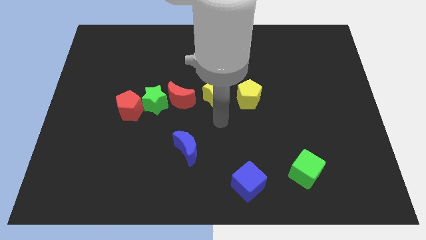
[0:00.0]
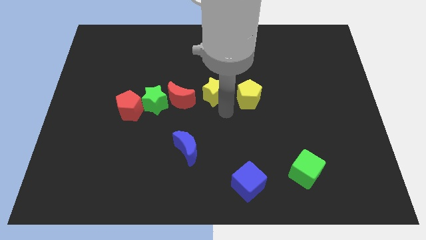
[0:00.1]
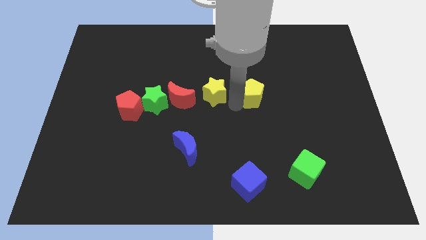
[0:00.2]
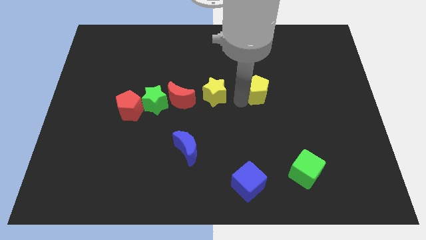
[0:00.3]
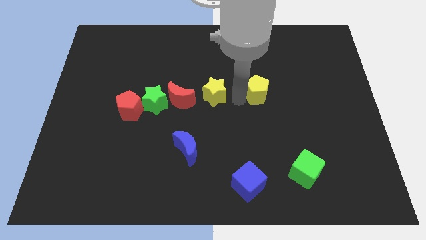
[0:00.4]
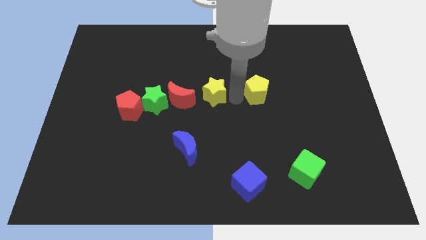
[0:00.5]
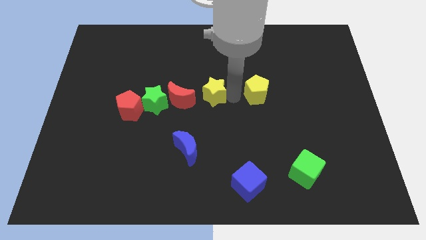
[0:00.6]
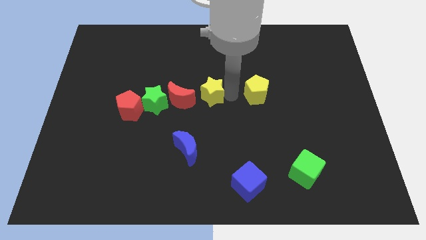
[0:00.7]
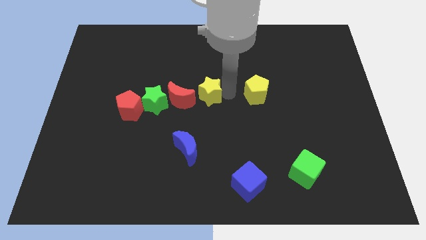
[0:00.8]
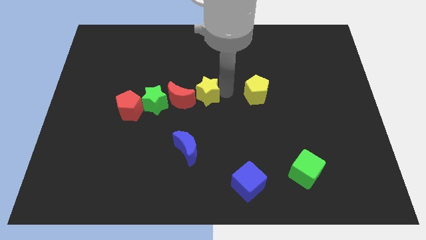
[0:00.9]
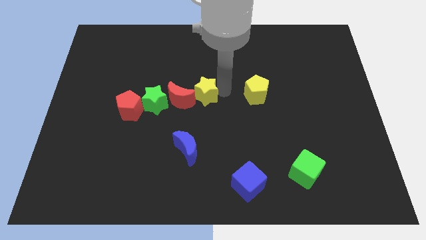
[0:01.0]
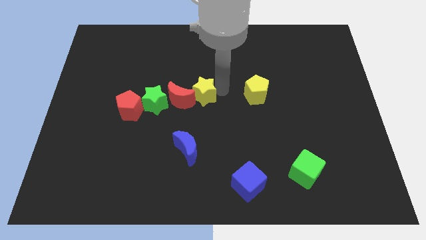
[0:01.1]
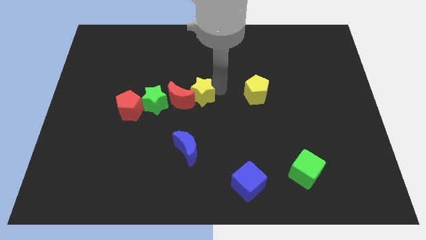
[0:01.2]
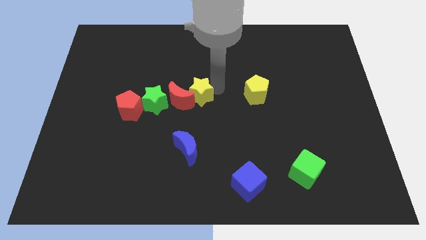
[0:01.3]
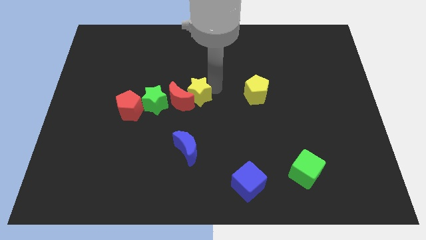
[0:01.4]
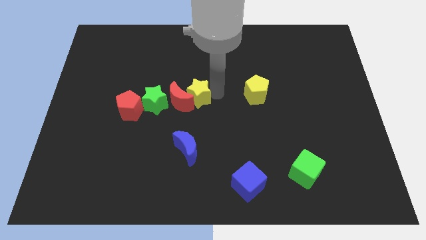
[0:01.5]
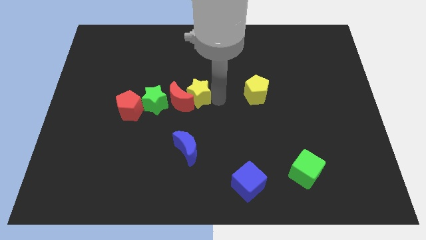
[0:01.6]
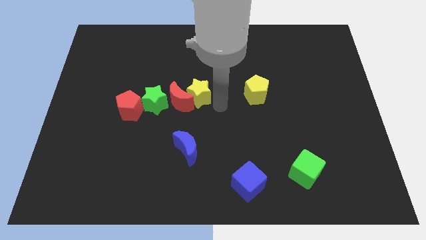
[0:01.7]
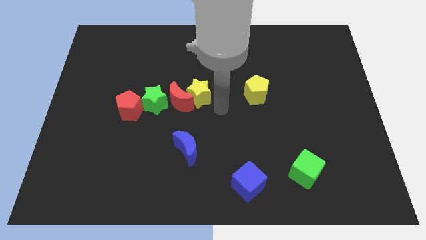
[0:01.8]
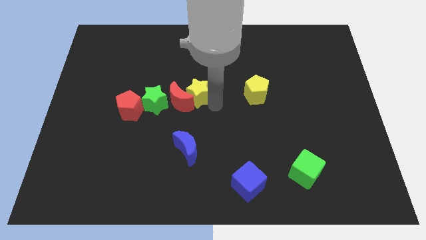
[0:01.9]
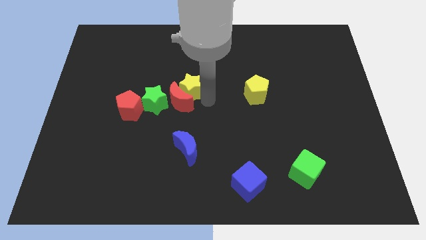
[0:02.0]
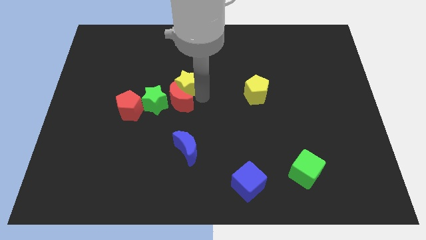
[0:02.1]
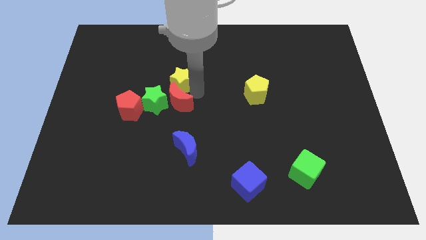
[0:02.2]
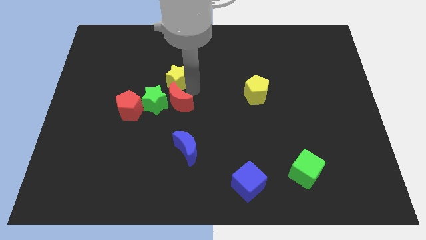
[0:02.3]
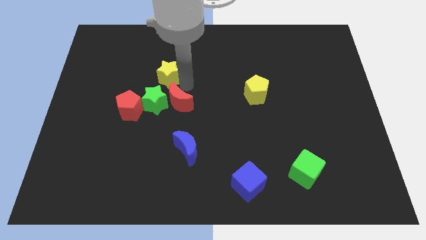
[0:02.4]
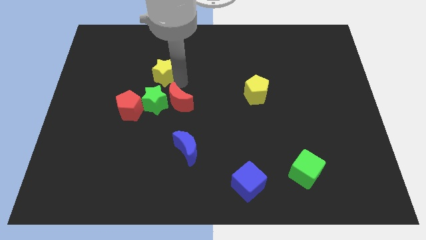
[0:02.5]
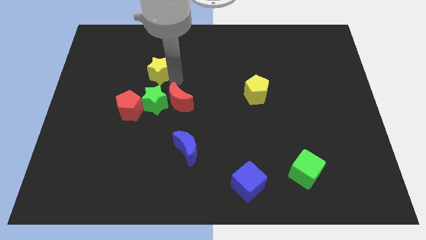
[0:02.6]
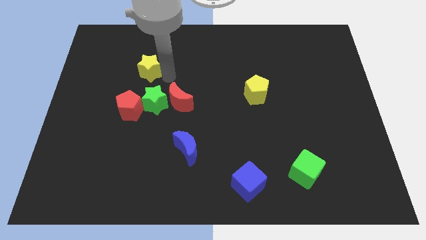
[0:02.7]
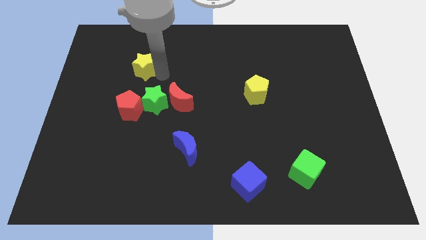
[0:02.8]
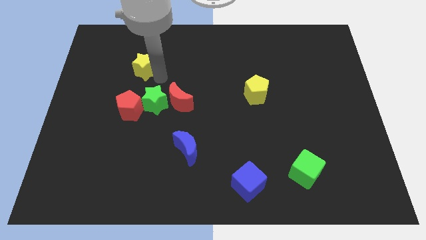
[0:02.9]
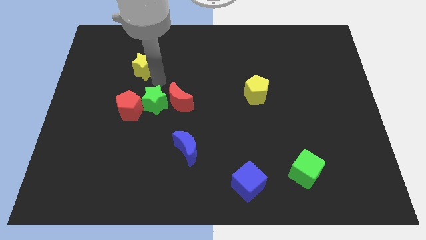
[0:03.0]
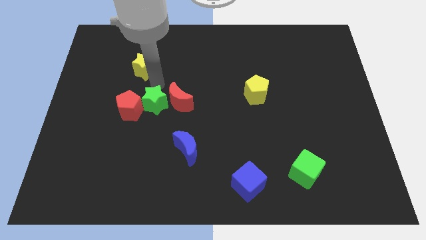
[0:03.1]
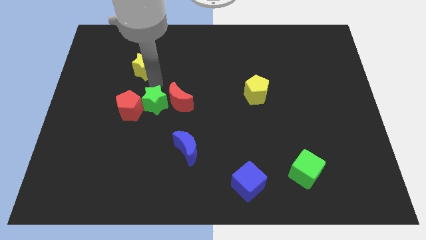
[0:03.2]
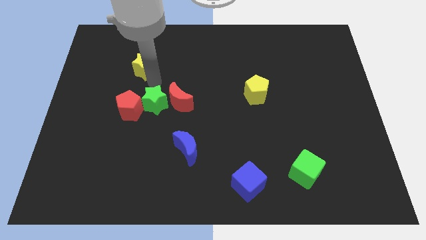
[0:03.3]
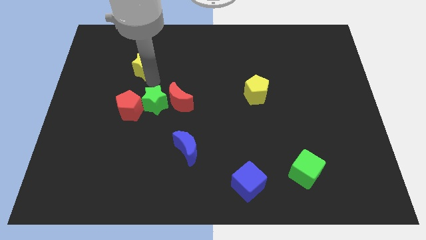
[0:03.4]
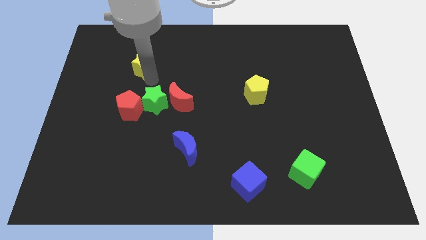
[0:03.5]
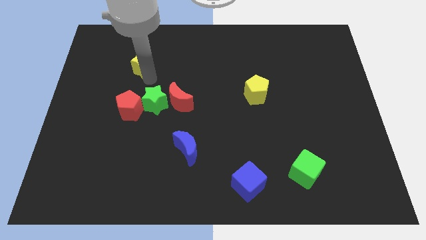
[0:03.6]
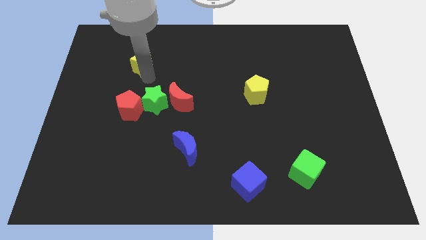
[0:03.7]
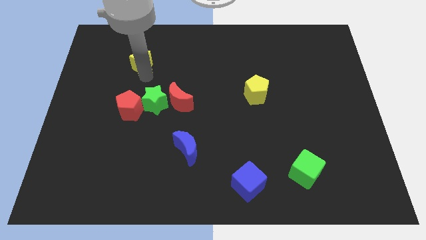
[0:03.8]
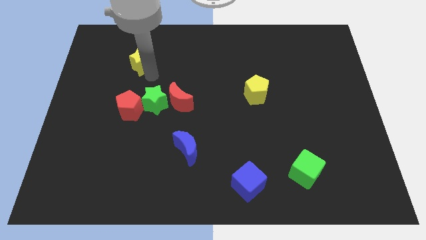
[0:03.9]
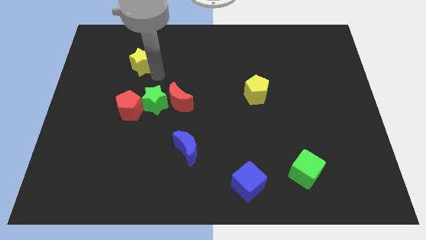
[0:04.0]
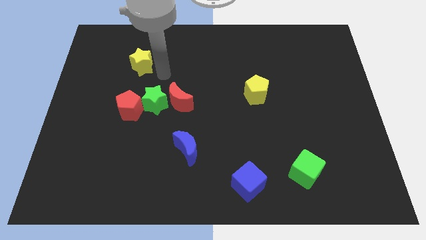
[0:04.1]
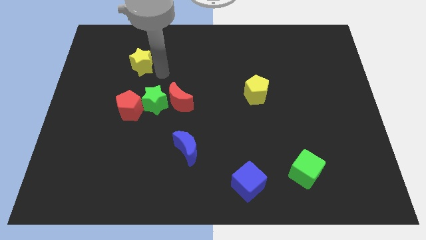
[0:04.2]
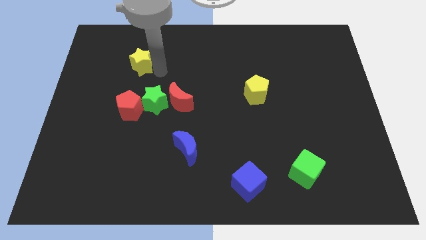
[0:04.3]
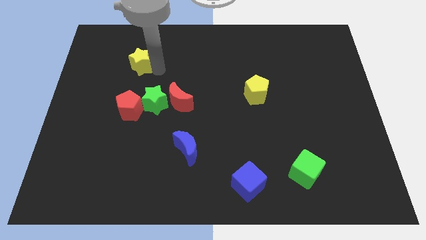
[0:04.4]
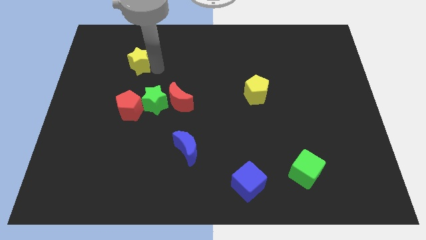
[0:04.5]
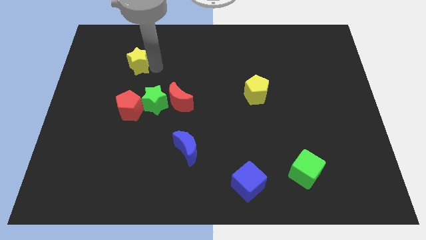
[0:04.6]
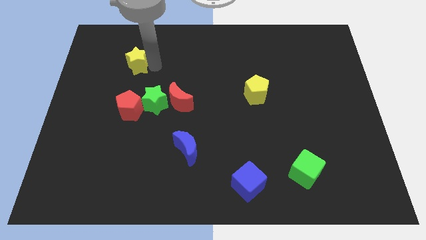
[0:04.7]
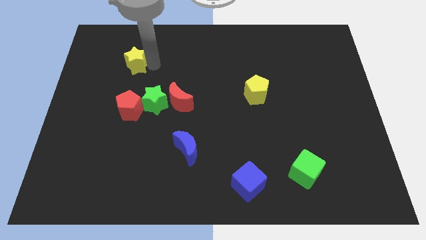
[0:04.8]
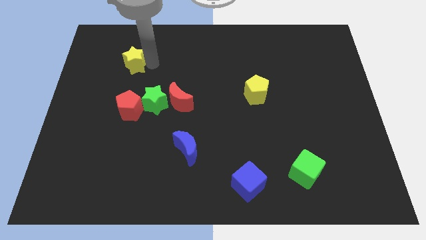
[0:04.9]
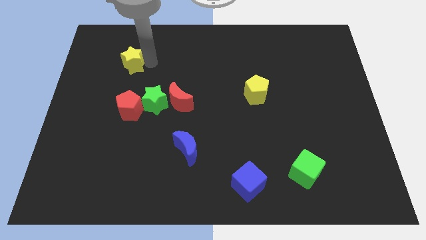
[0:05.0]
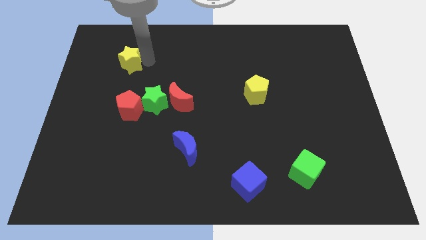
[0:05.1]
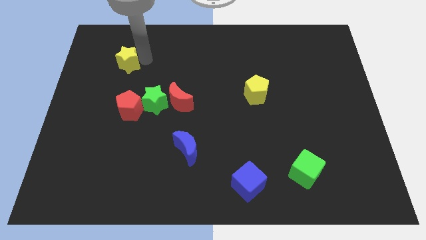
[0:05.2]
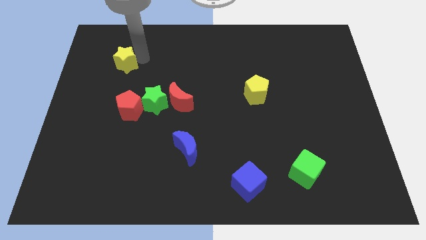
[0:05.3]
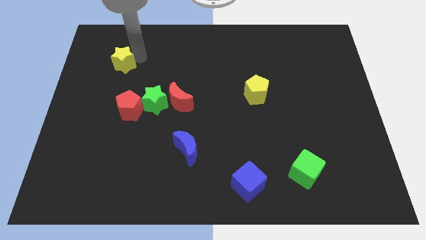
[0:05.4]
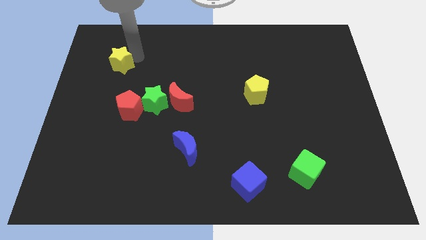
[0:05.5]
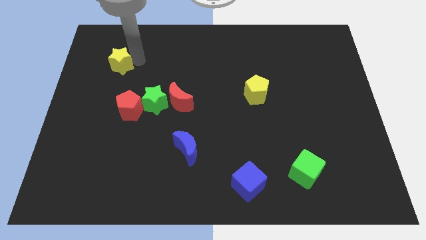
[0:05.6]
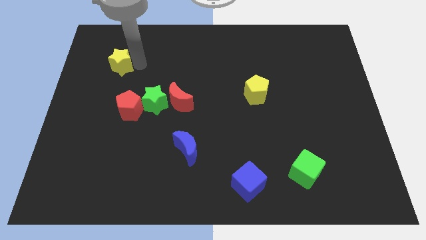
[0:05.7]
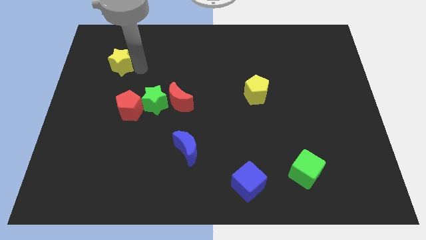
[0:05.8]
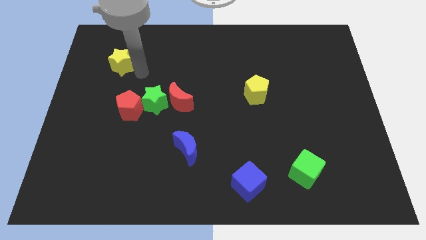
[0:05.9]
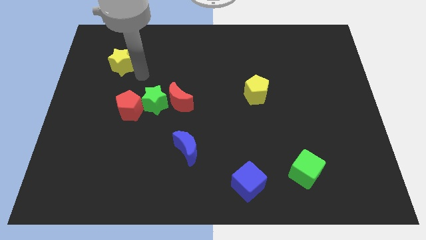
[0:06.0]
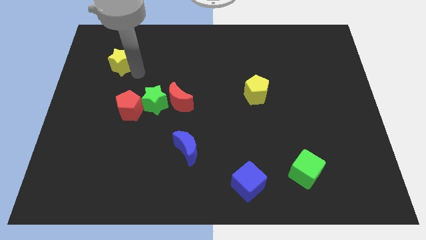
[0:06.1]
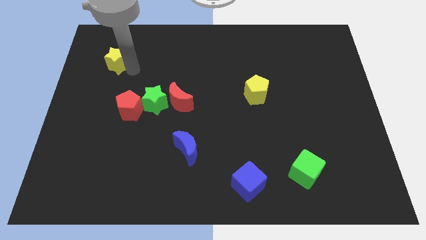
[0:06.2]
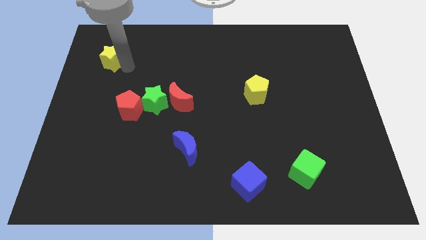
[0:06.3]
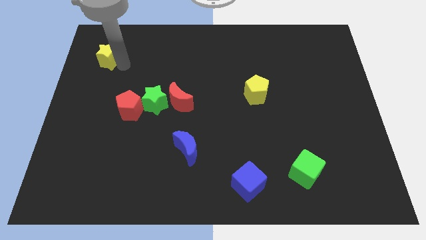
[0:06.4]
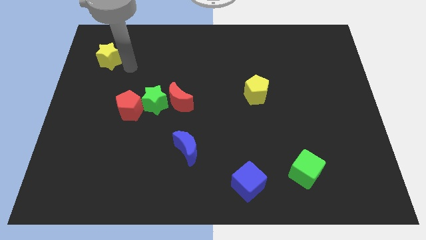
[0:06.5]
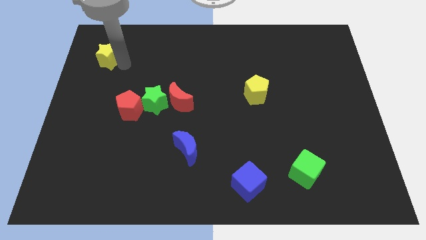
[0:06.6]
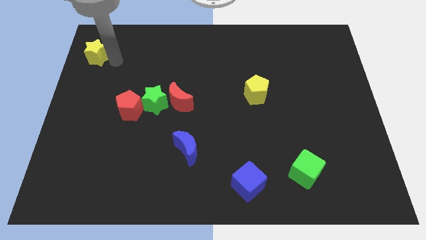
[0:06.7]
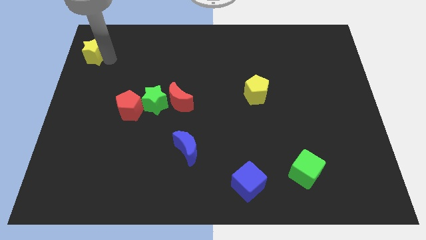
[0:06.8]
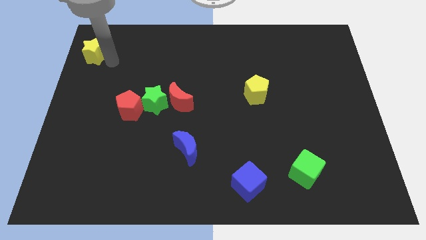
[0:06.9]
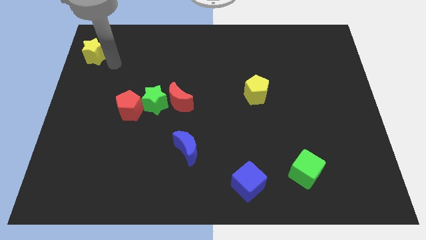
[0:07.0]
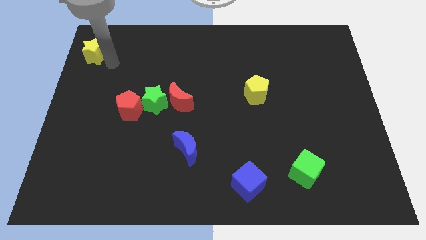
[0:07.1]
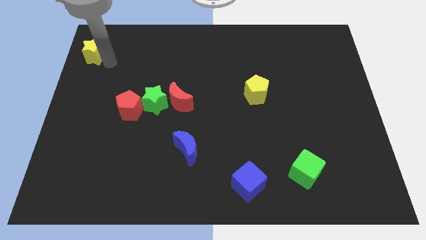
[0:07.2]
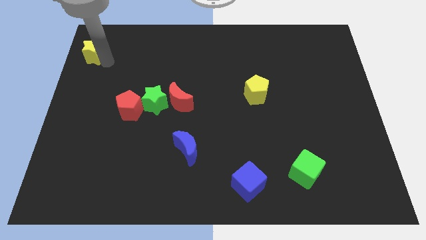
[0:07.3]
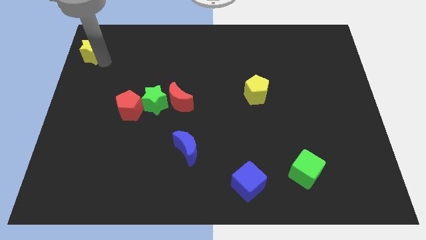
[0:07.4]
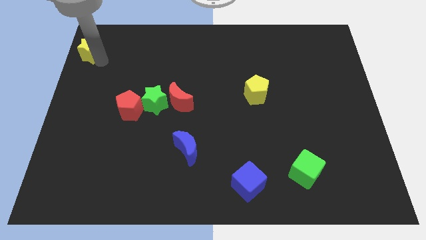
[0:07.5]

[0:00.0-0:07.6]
slide the yellow star to the upper left corner
